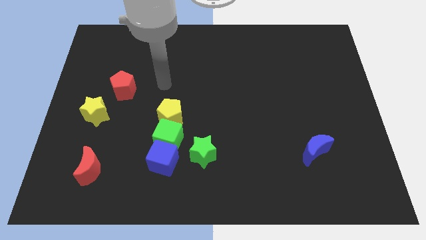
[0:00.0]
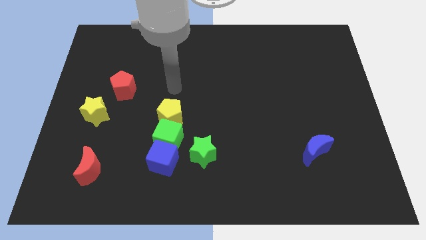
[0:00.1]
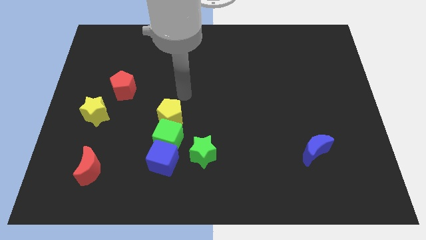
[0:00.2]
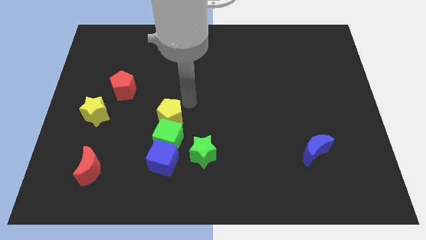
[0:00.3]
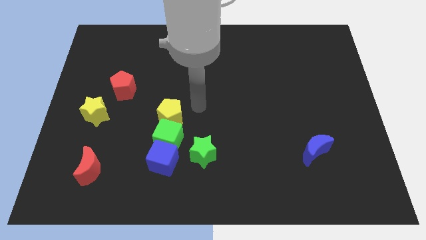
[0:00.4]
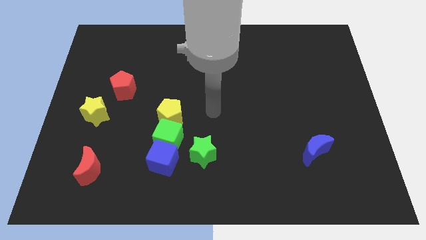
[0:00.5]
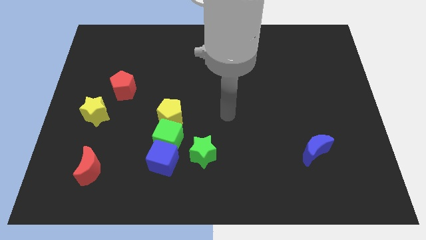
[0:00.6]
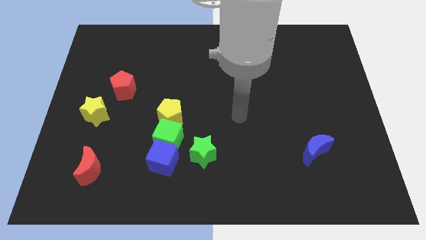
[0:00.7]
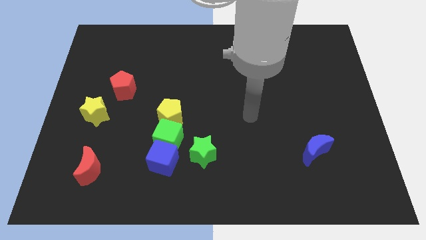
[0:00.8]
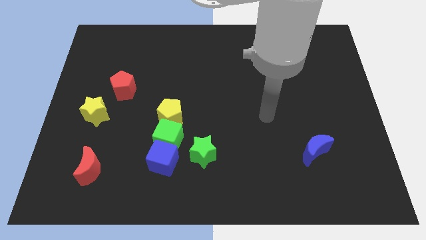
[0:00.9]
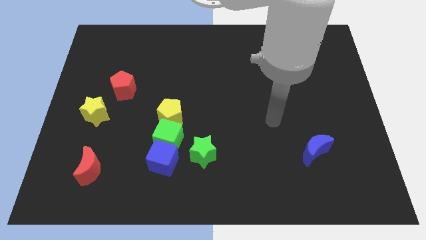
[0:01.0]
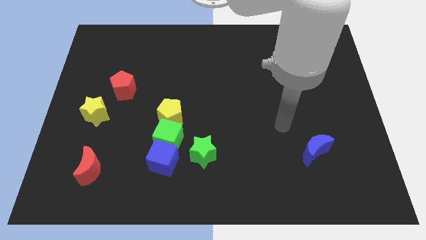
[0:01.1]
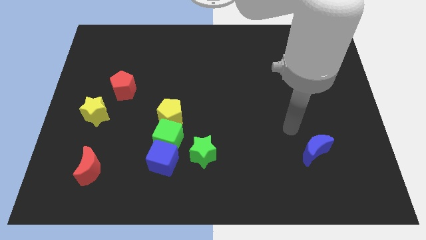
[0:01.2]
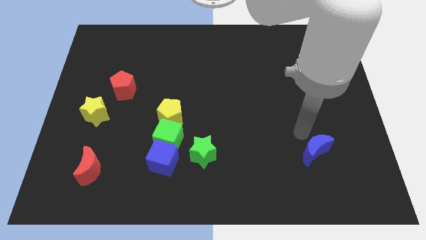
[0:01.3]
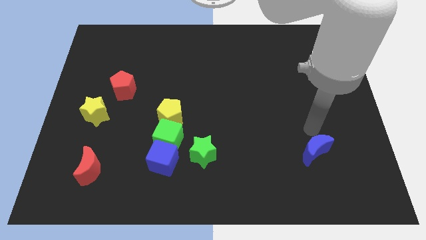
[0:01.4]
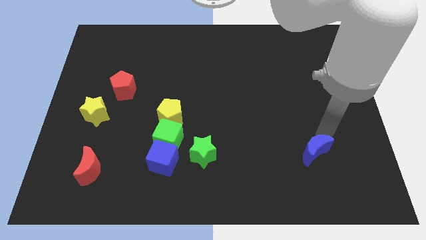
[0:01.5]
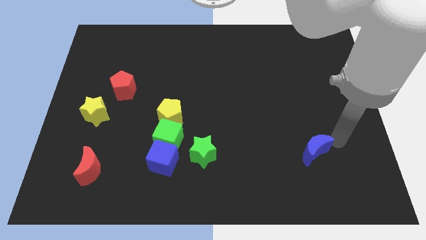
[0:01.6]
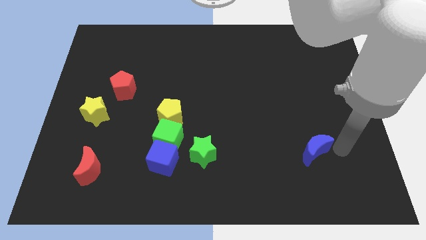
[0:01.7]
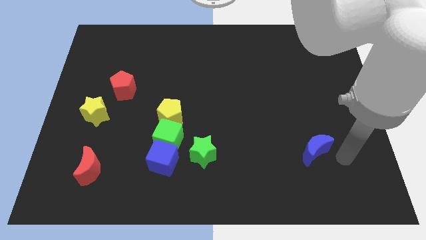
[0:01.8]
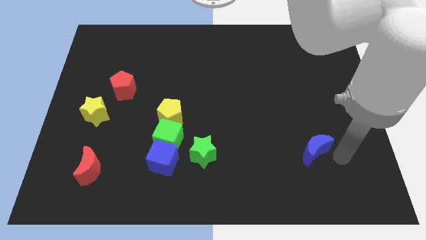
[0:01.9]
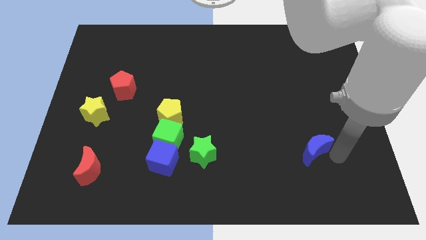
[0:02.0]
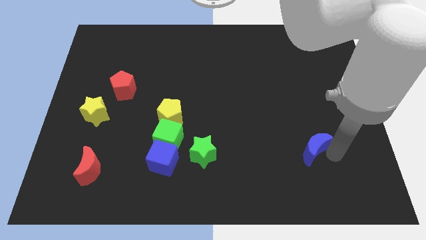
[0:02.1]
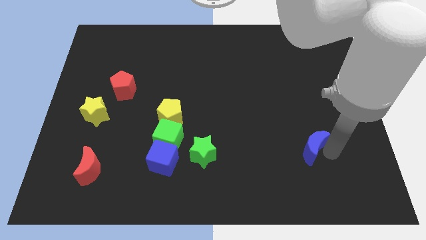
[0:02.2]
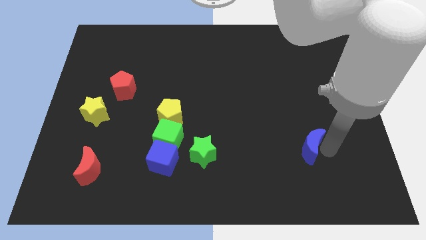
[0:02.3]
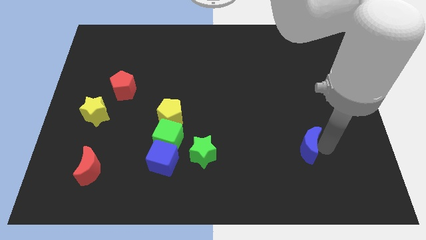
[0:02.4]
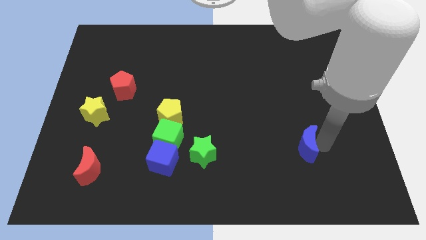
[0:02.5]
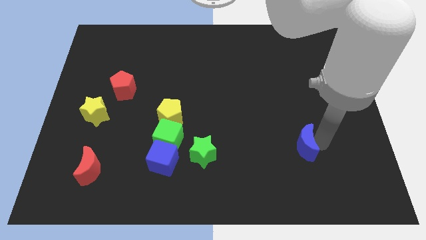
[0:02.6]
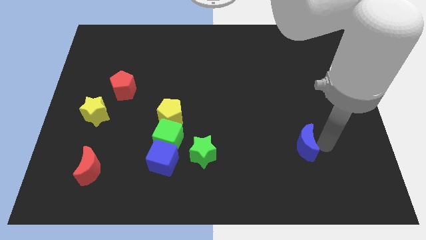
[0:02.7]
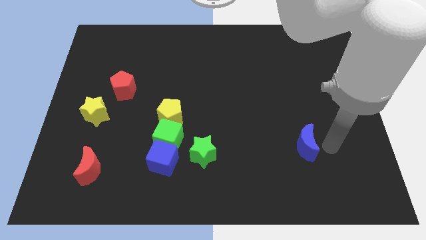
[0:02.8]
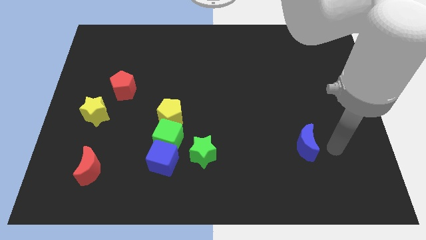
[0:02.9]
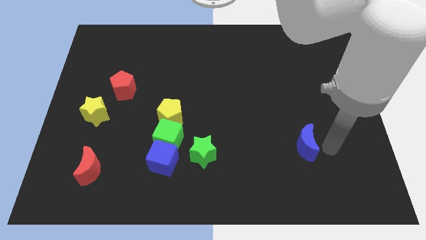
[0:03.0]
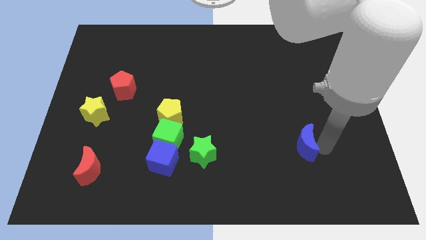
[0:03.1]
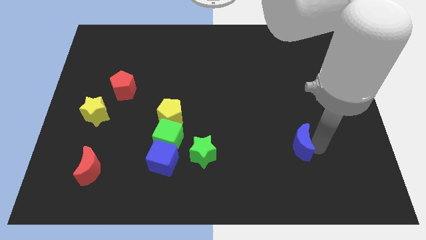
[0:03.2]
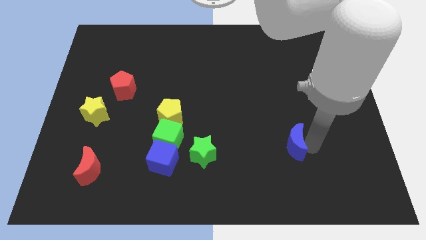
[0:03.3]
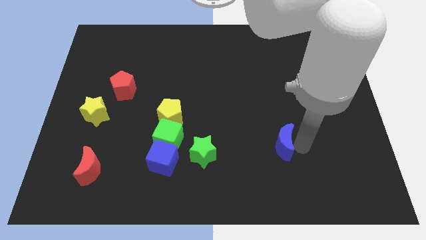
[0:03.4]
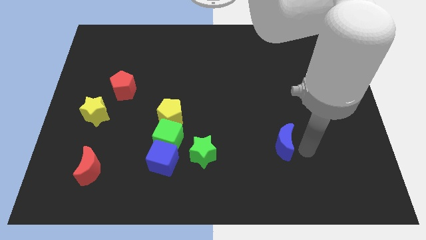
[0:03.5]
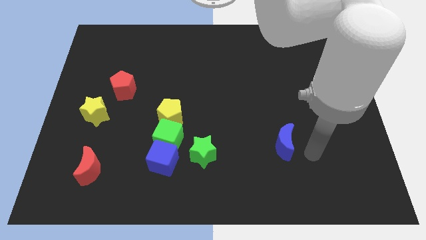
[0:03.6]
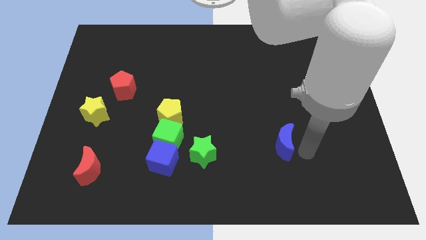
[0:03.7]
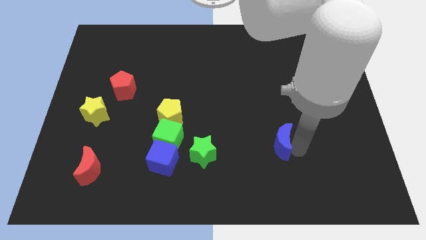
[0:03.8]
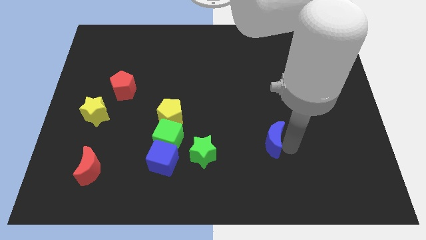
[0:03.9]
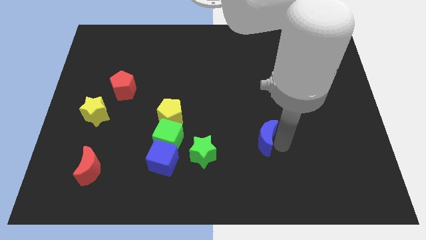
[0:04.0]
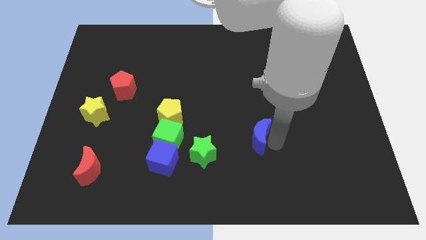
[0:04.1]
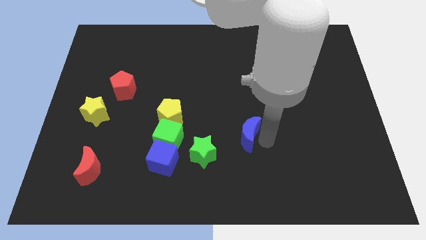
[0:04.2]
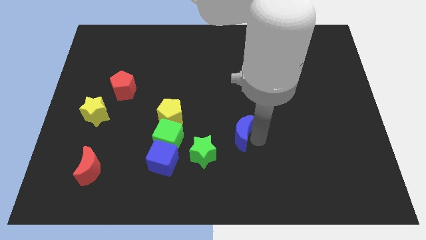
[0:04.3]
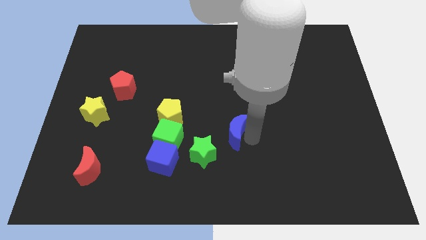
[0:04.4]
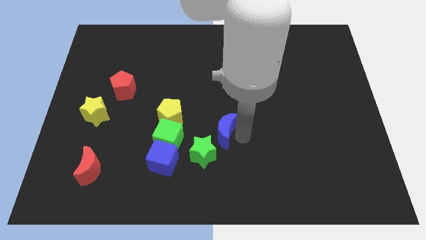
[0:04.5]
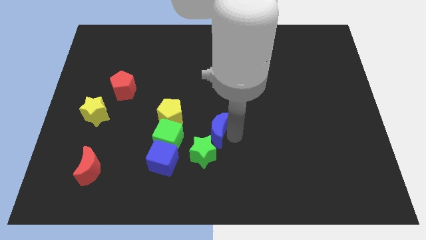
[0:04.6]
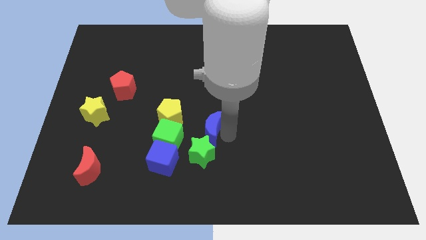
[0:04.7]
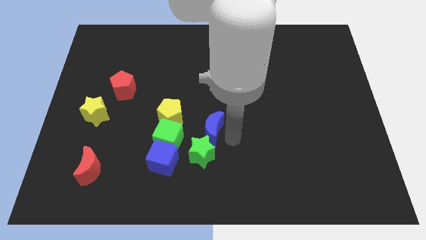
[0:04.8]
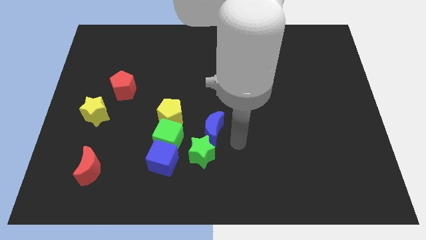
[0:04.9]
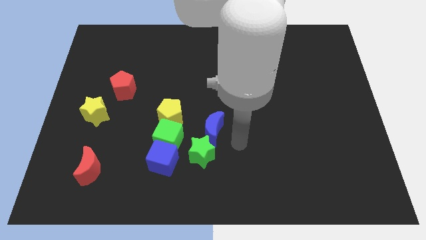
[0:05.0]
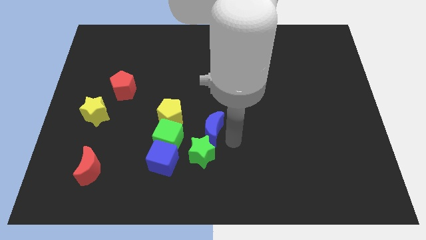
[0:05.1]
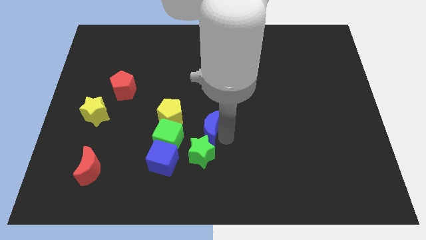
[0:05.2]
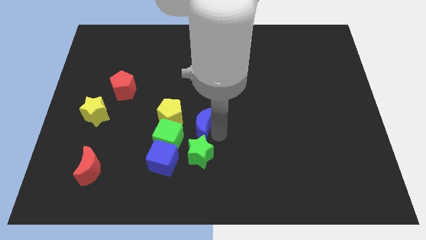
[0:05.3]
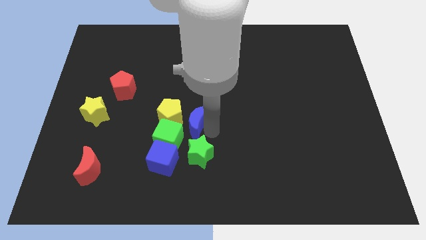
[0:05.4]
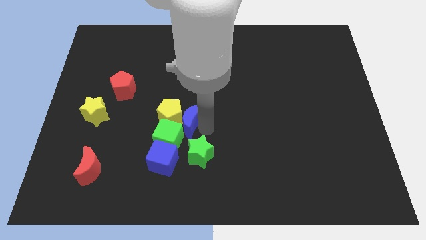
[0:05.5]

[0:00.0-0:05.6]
push the blue moon towards the yellow pentagon
